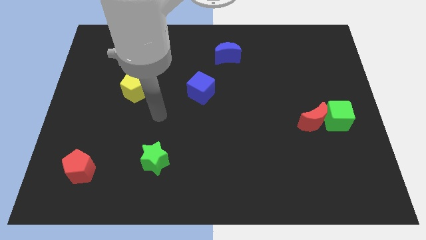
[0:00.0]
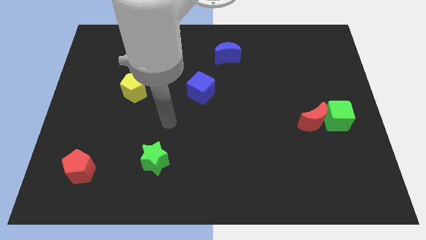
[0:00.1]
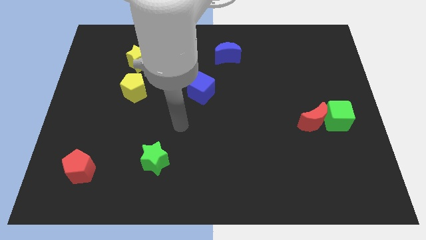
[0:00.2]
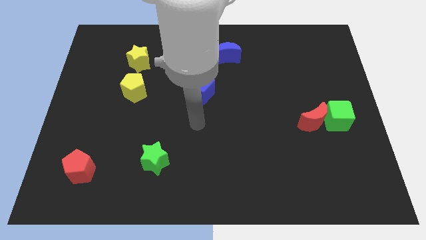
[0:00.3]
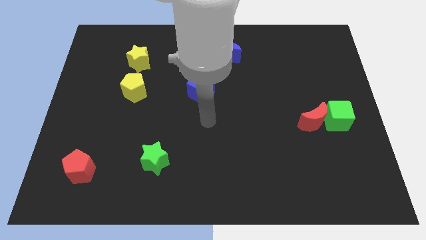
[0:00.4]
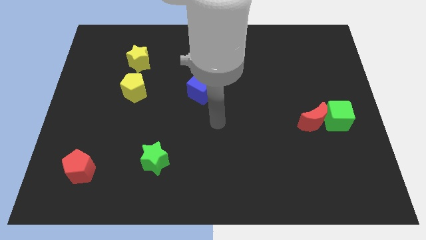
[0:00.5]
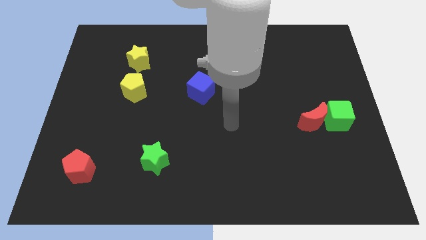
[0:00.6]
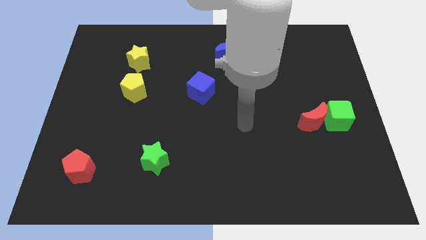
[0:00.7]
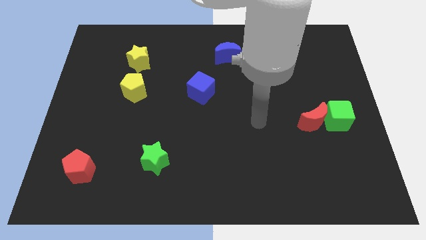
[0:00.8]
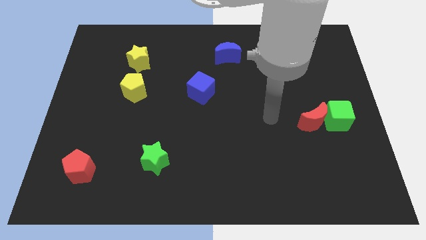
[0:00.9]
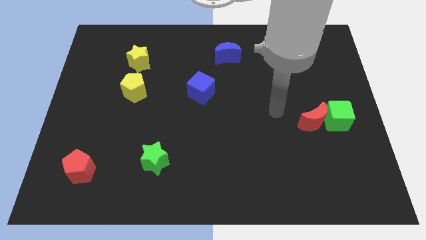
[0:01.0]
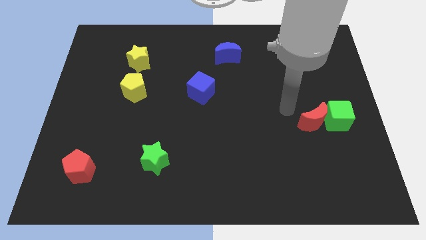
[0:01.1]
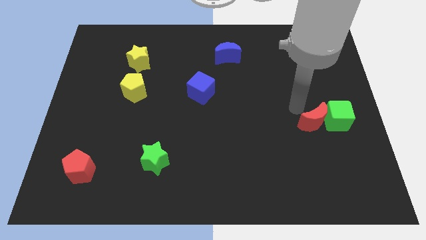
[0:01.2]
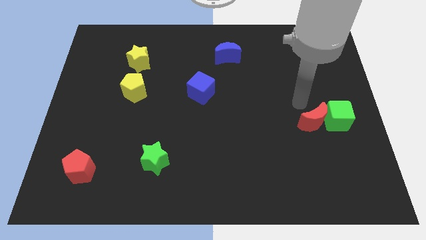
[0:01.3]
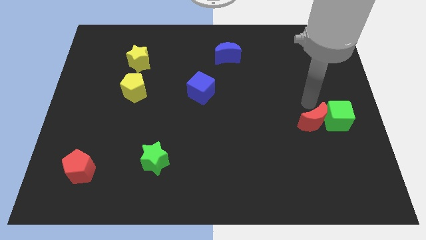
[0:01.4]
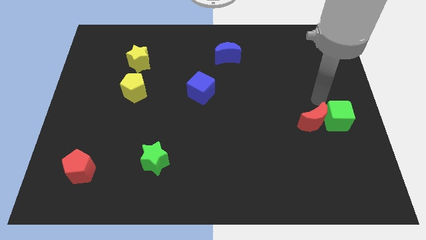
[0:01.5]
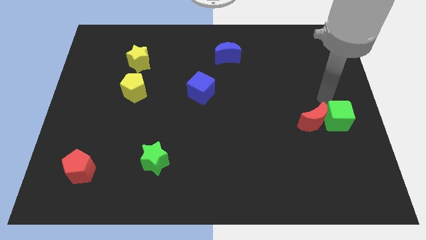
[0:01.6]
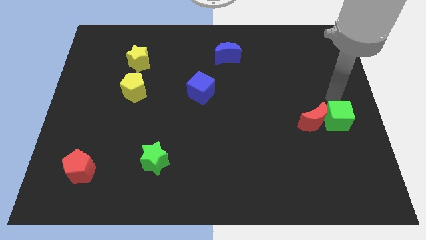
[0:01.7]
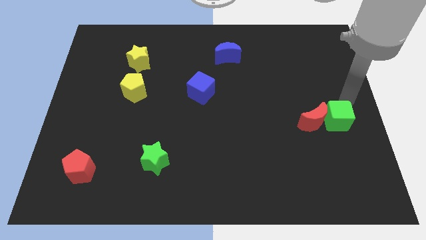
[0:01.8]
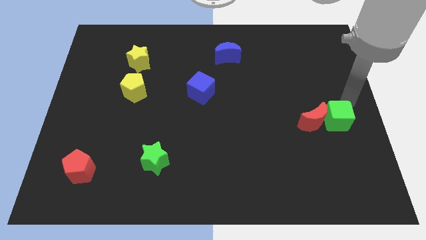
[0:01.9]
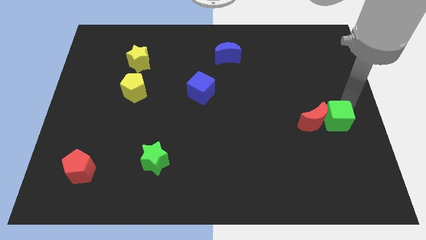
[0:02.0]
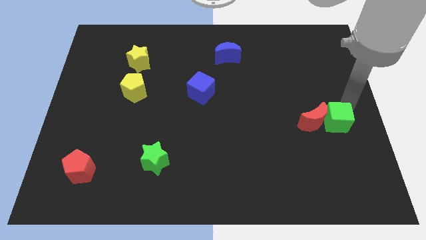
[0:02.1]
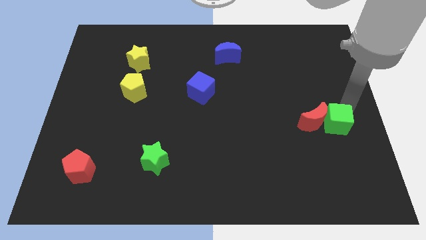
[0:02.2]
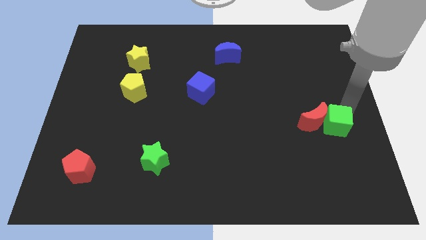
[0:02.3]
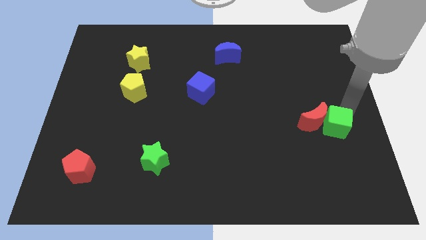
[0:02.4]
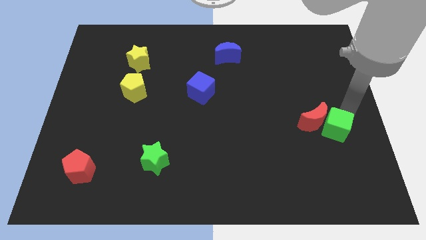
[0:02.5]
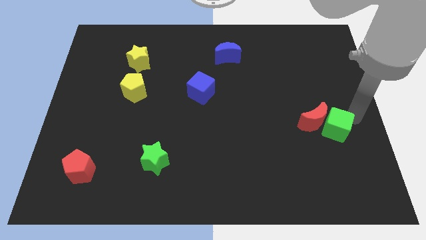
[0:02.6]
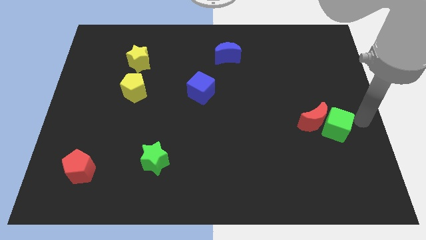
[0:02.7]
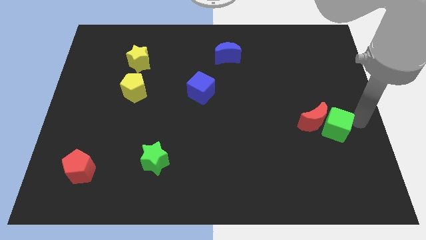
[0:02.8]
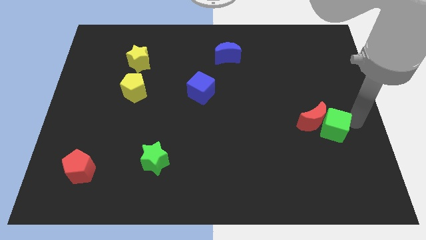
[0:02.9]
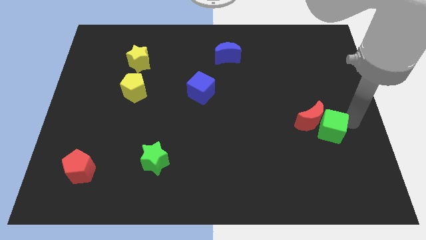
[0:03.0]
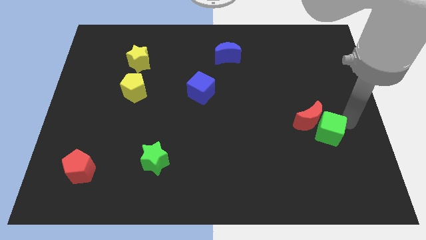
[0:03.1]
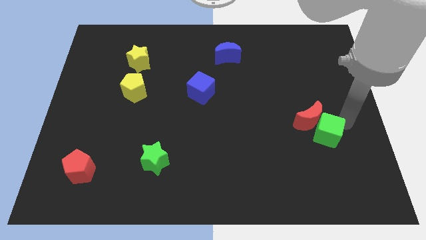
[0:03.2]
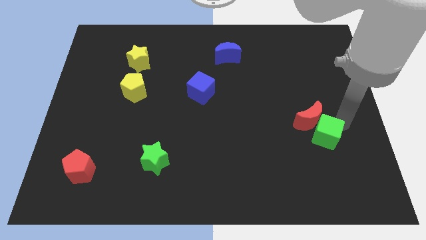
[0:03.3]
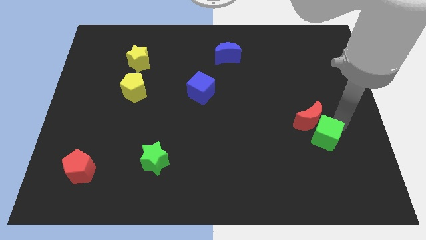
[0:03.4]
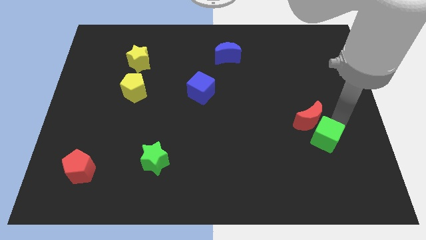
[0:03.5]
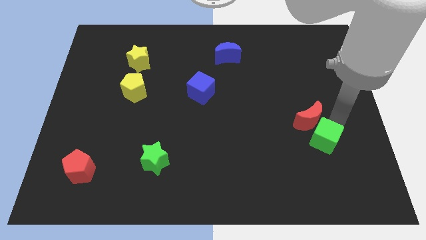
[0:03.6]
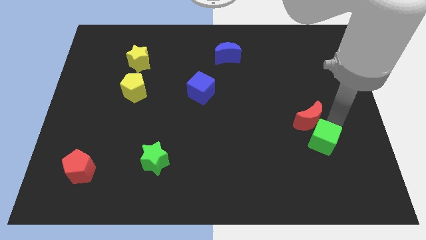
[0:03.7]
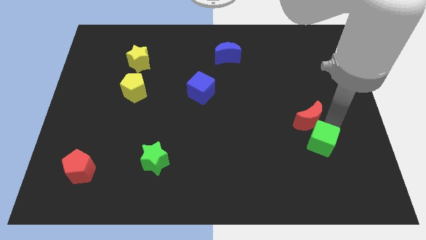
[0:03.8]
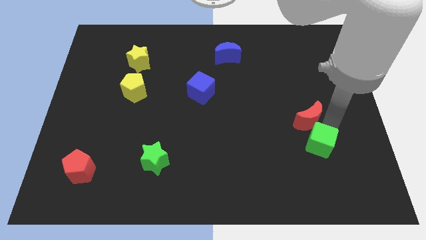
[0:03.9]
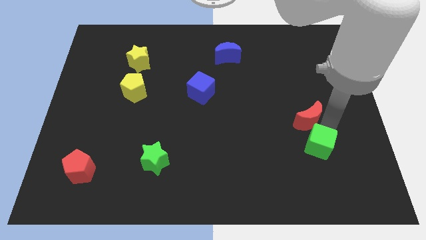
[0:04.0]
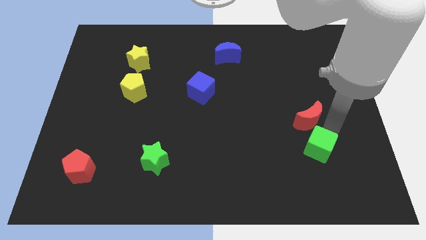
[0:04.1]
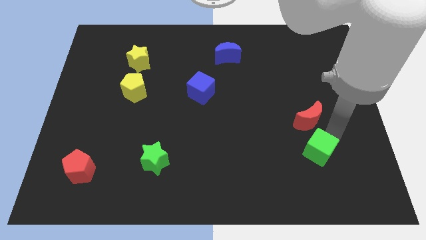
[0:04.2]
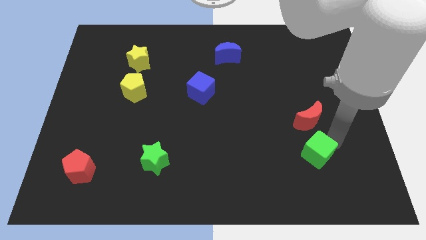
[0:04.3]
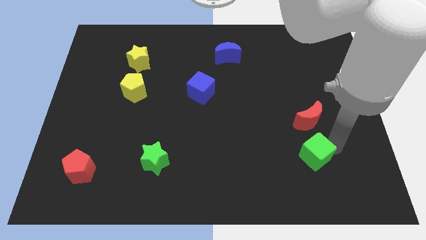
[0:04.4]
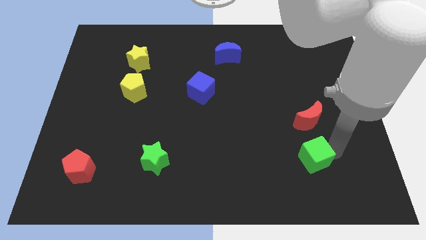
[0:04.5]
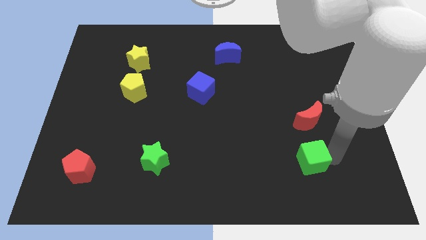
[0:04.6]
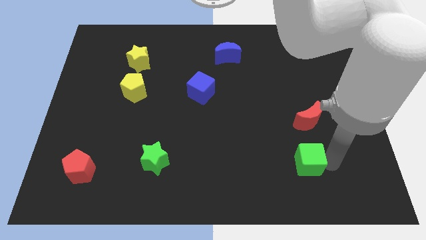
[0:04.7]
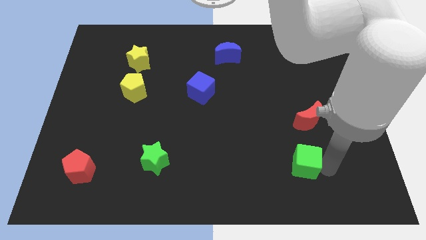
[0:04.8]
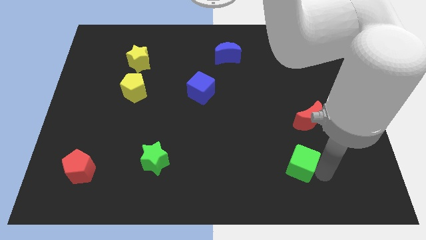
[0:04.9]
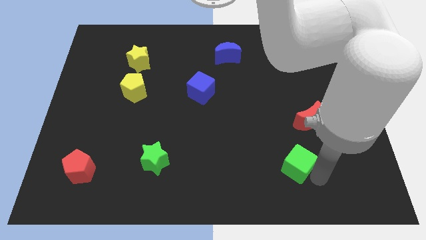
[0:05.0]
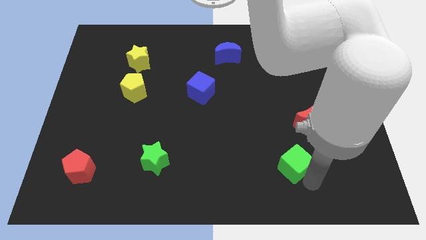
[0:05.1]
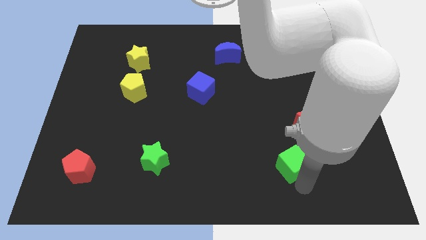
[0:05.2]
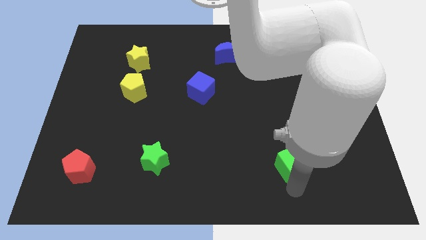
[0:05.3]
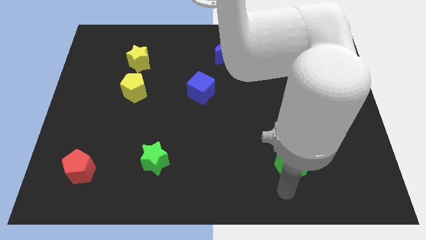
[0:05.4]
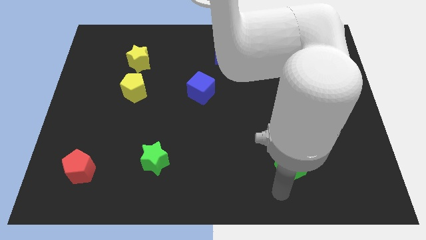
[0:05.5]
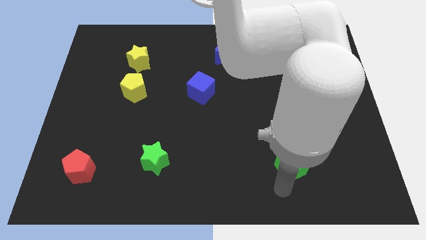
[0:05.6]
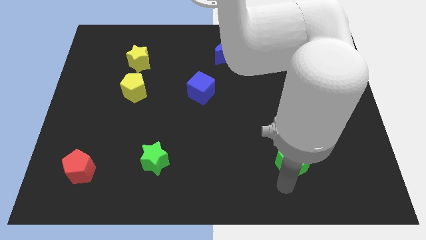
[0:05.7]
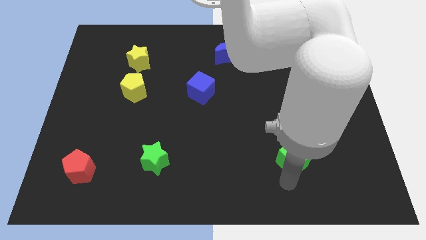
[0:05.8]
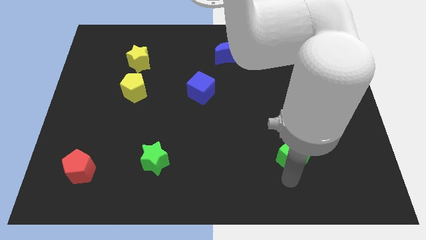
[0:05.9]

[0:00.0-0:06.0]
move the green cube left a bit

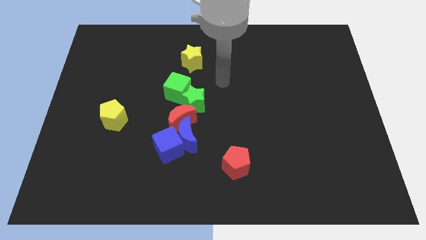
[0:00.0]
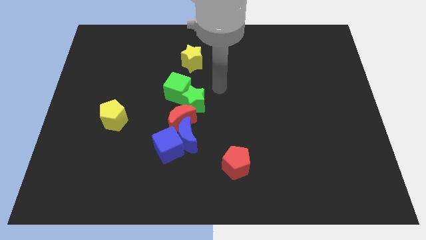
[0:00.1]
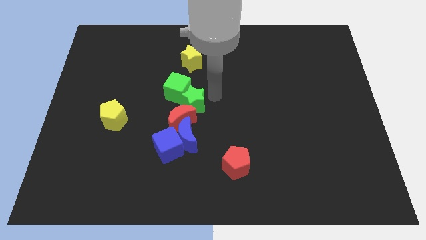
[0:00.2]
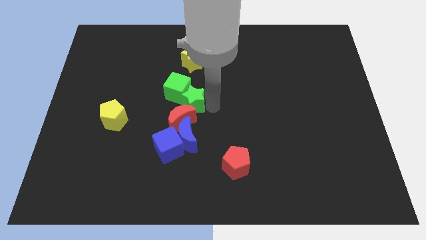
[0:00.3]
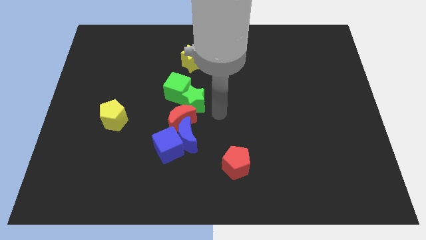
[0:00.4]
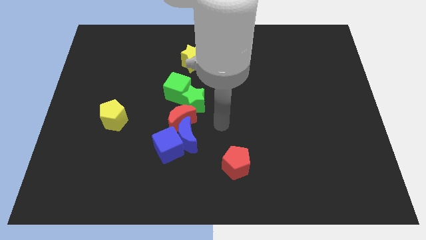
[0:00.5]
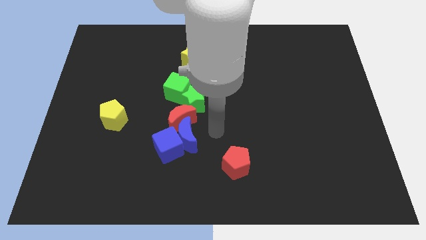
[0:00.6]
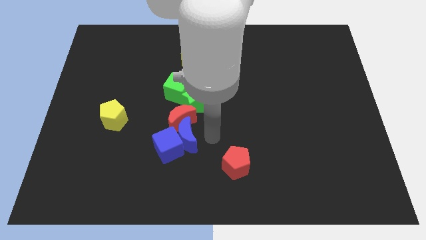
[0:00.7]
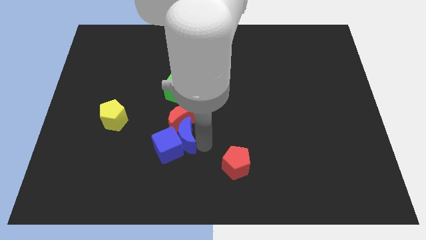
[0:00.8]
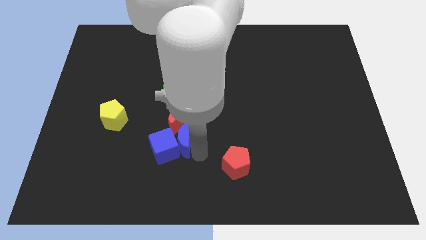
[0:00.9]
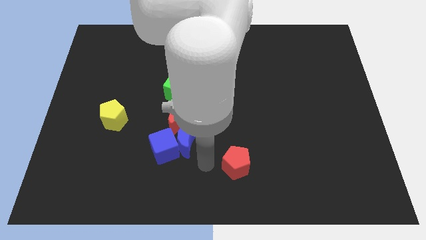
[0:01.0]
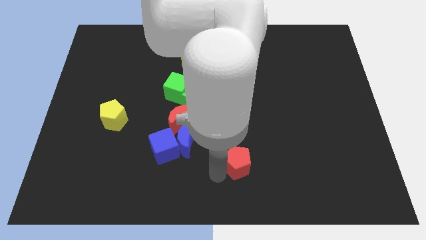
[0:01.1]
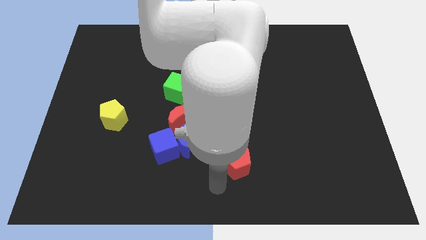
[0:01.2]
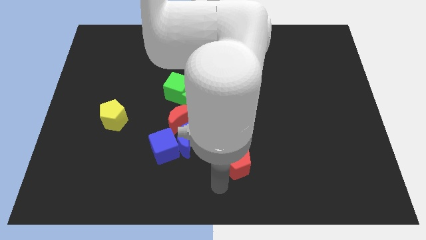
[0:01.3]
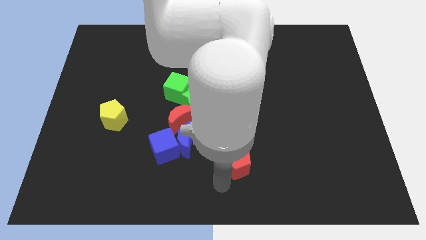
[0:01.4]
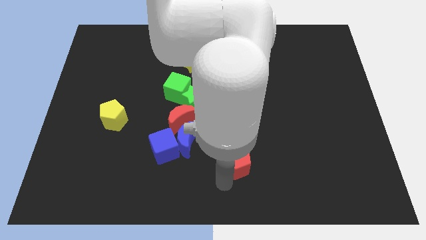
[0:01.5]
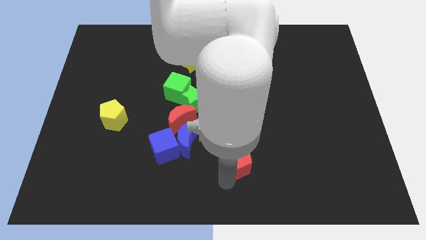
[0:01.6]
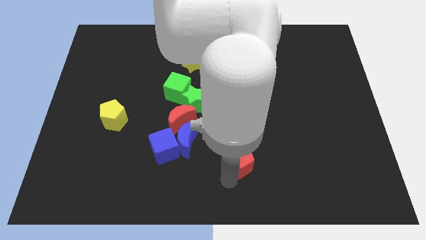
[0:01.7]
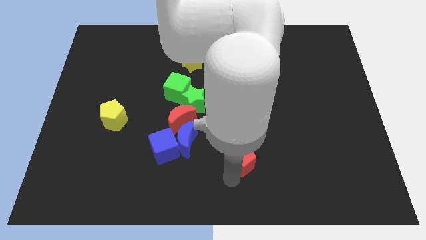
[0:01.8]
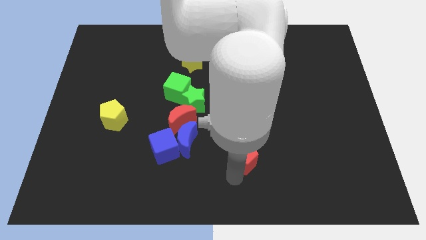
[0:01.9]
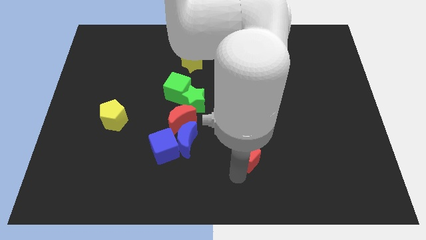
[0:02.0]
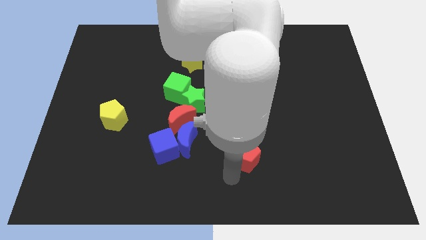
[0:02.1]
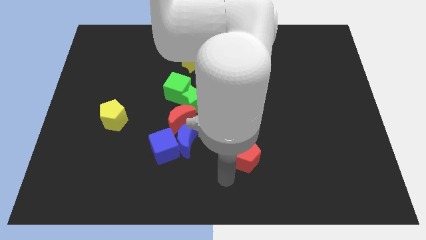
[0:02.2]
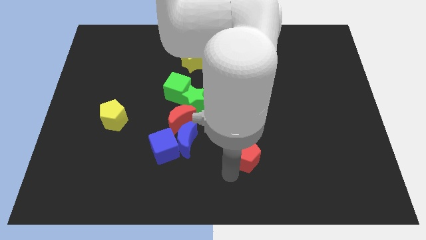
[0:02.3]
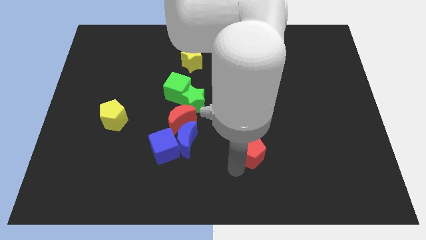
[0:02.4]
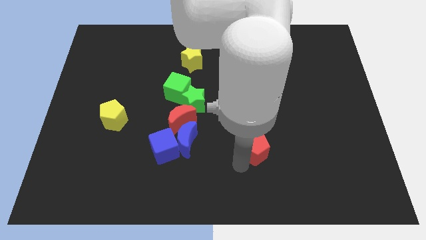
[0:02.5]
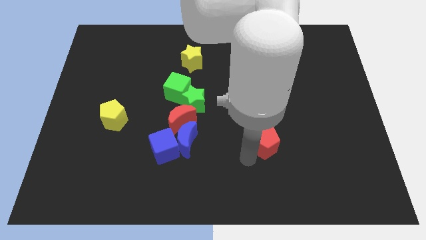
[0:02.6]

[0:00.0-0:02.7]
push the red pentagon slightly up and then right
